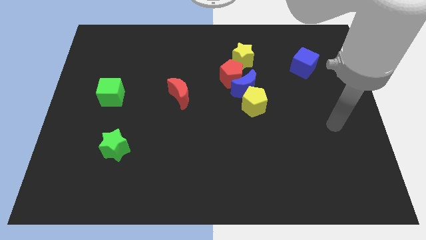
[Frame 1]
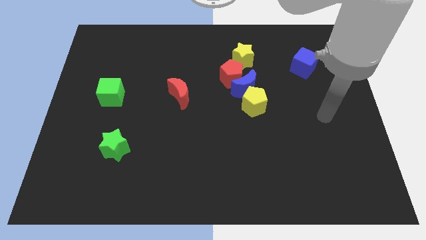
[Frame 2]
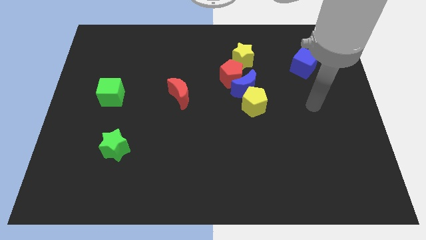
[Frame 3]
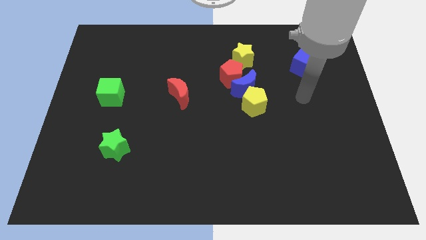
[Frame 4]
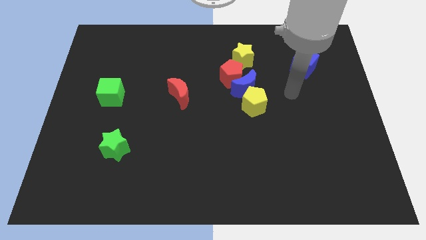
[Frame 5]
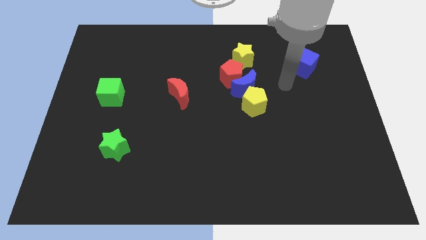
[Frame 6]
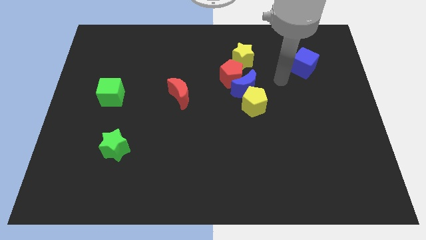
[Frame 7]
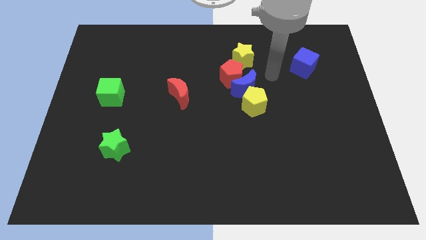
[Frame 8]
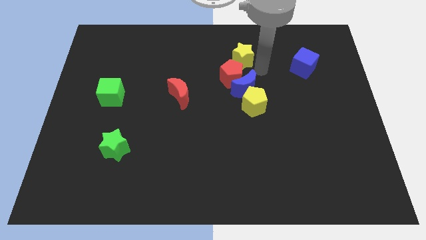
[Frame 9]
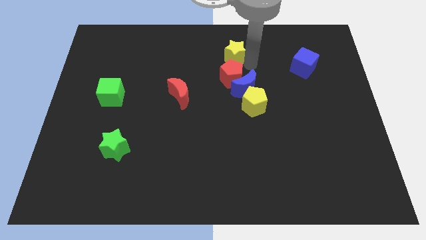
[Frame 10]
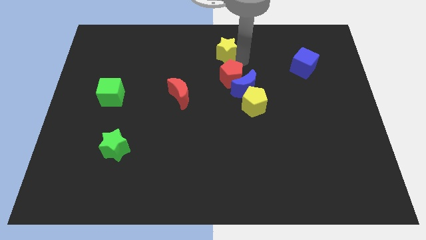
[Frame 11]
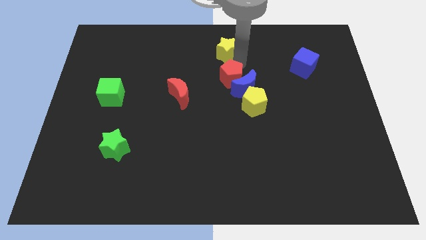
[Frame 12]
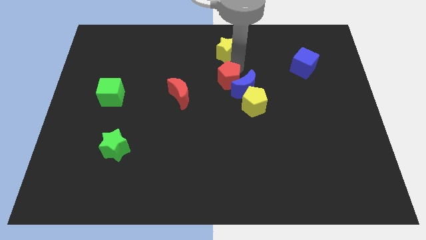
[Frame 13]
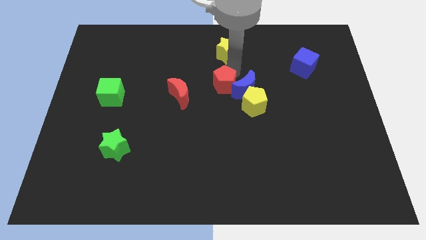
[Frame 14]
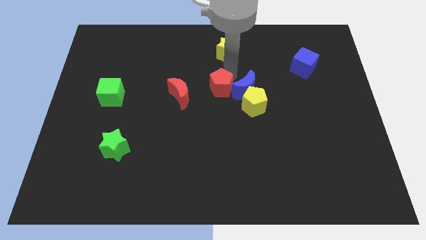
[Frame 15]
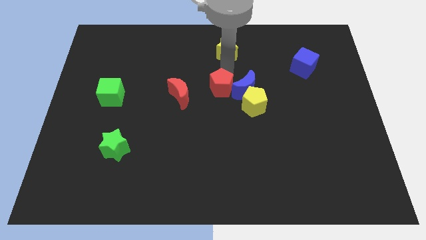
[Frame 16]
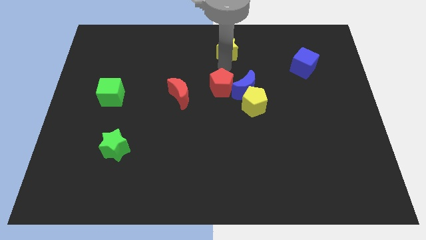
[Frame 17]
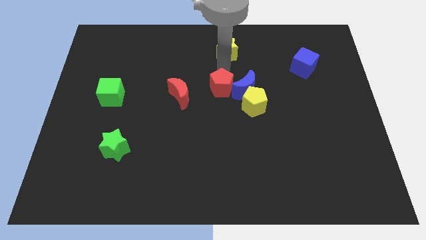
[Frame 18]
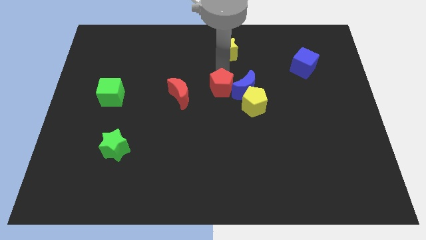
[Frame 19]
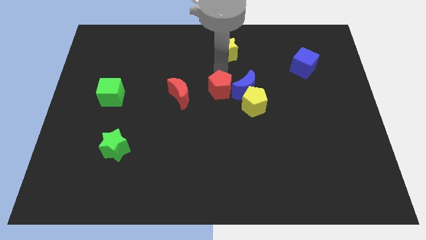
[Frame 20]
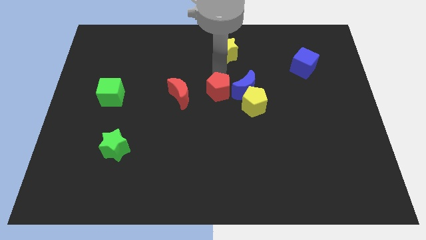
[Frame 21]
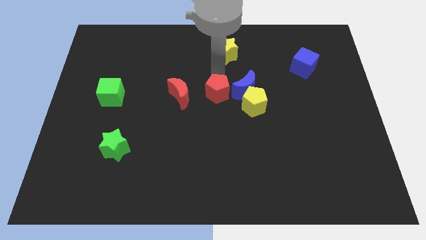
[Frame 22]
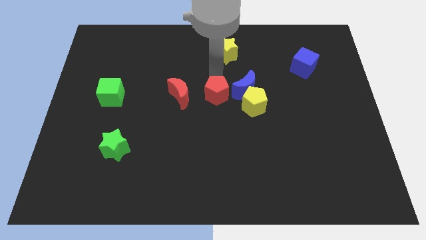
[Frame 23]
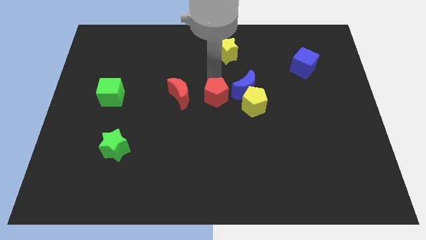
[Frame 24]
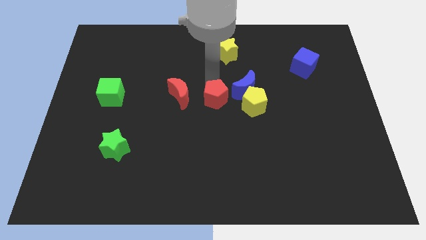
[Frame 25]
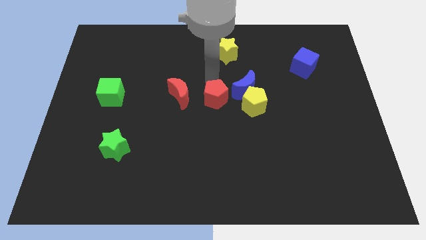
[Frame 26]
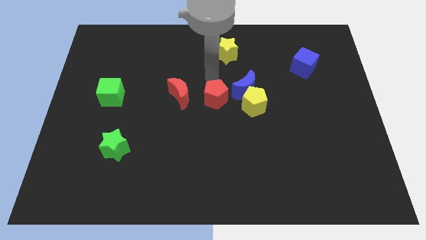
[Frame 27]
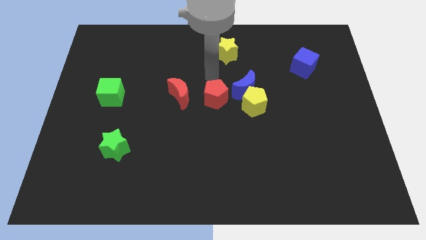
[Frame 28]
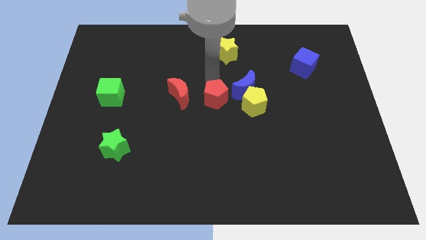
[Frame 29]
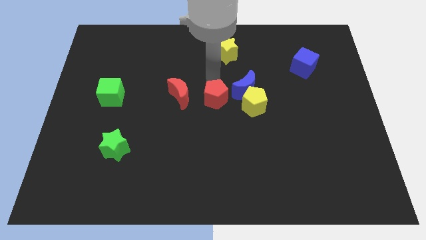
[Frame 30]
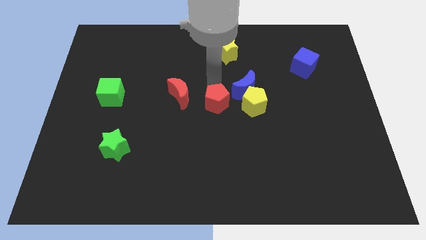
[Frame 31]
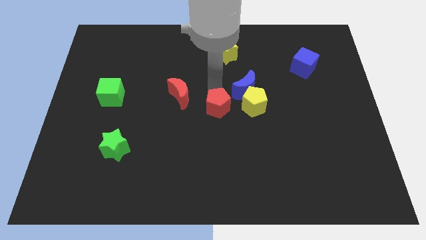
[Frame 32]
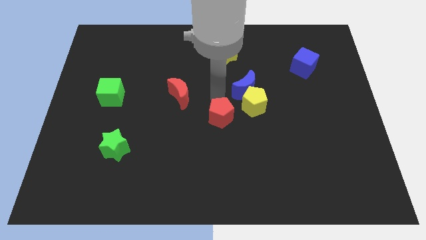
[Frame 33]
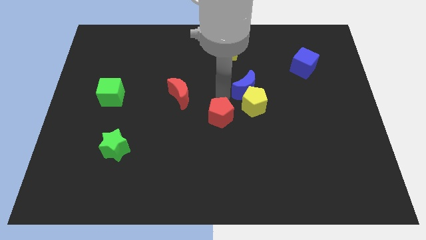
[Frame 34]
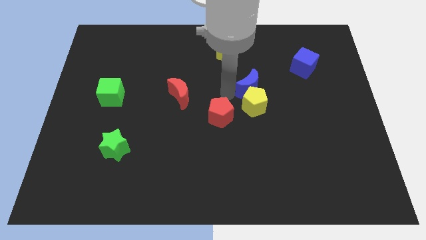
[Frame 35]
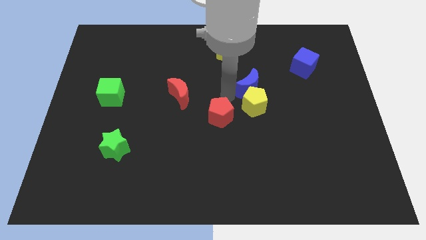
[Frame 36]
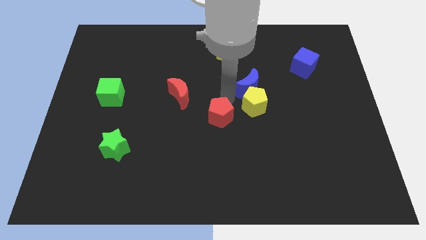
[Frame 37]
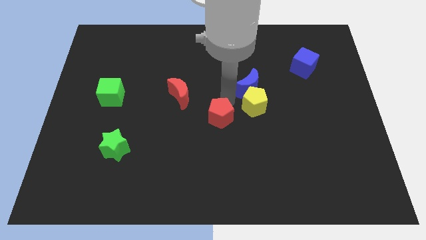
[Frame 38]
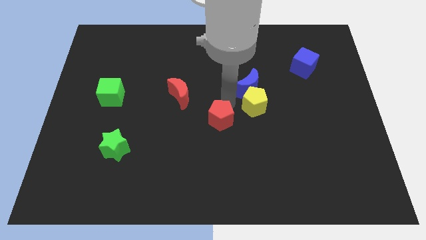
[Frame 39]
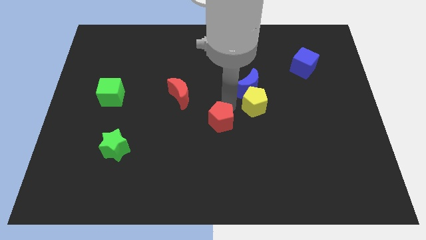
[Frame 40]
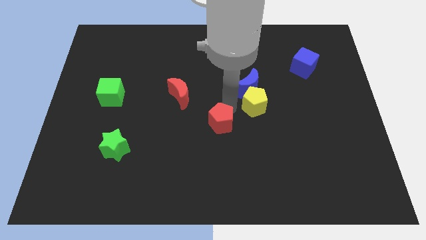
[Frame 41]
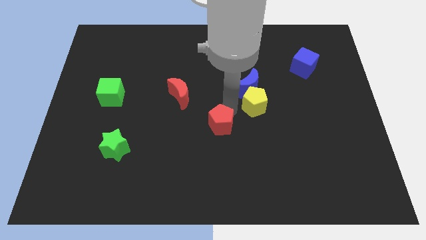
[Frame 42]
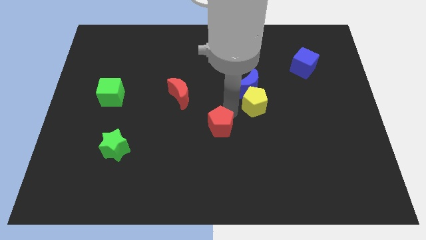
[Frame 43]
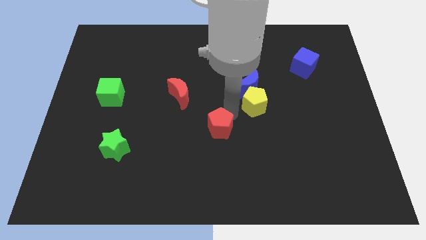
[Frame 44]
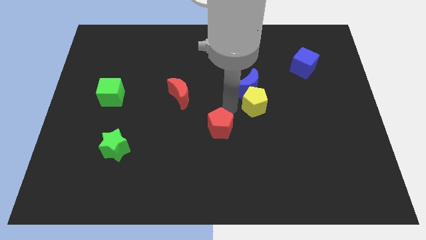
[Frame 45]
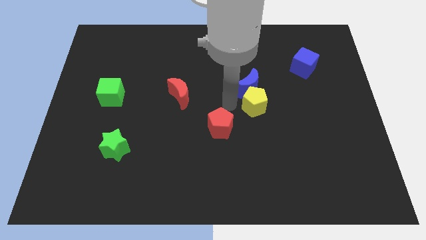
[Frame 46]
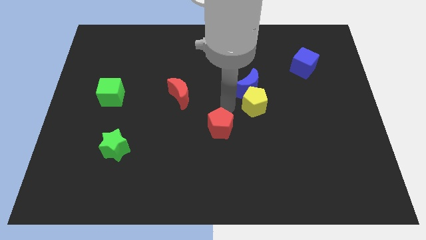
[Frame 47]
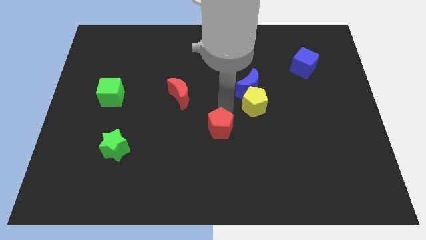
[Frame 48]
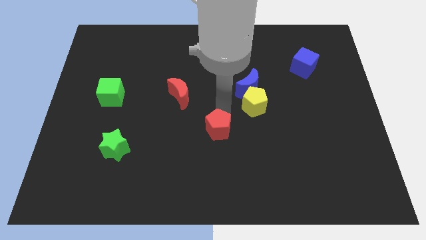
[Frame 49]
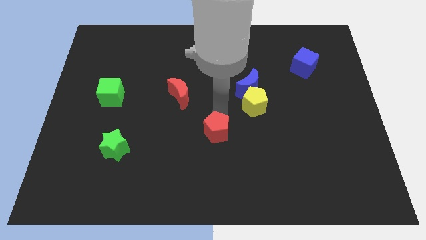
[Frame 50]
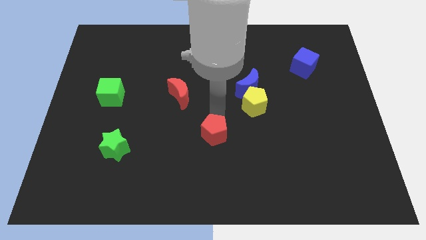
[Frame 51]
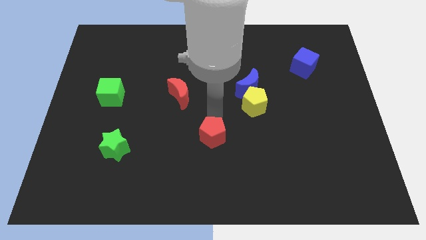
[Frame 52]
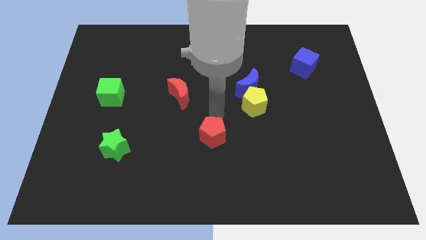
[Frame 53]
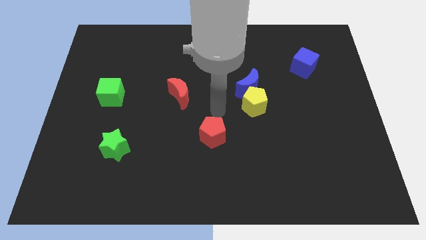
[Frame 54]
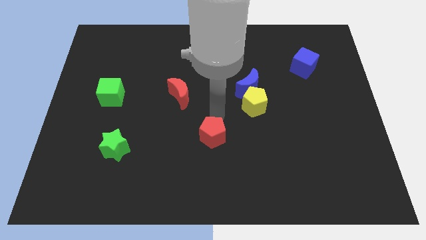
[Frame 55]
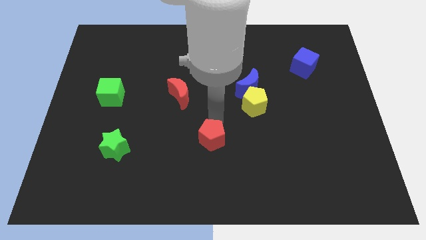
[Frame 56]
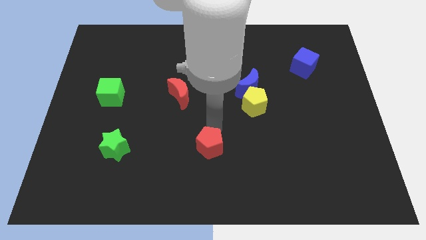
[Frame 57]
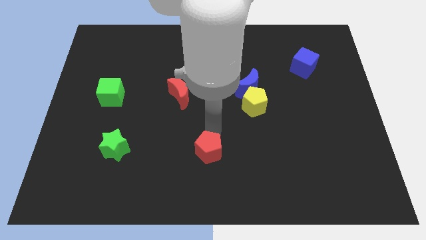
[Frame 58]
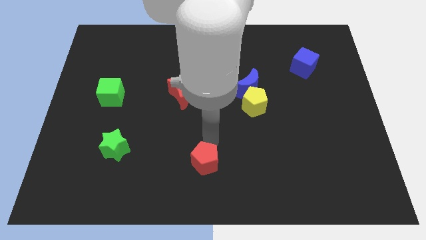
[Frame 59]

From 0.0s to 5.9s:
push the red pentagon to the bottom side
